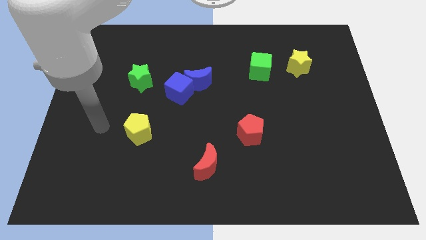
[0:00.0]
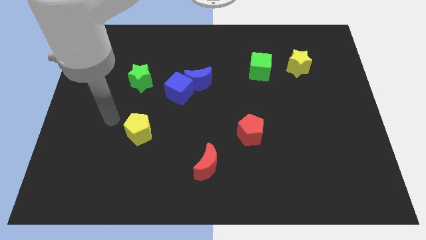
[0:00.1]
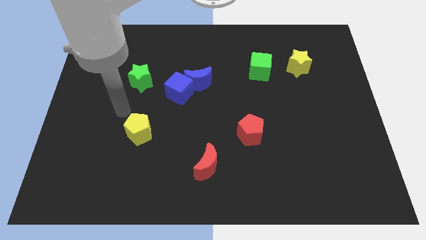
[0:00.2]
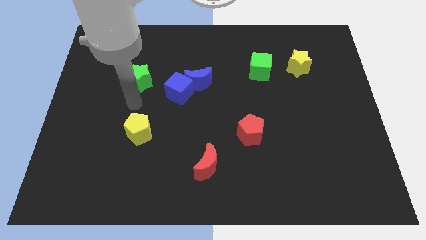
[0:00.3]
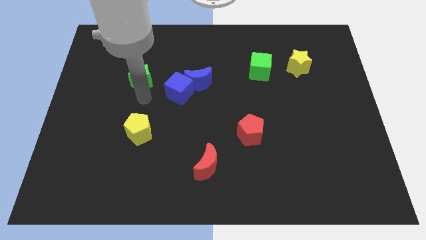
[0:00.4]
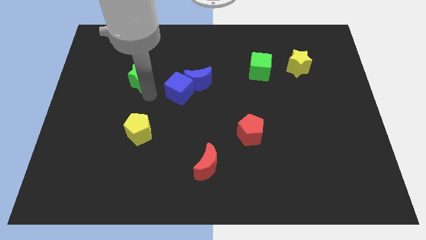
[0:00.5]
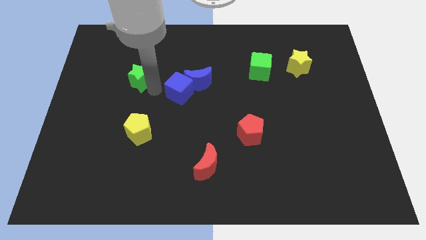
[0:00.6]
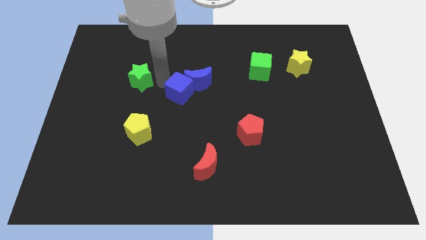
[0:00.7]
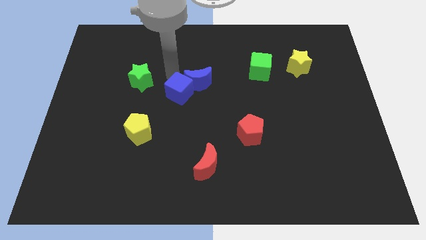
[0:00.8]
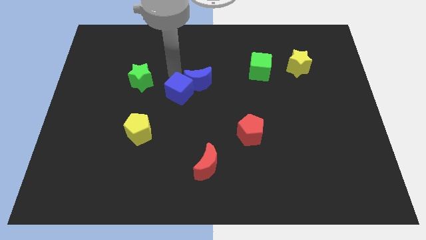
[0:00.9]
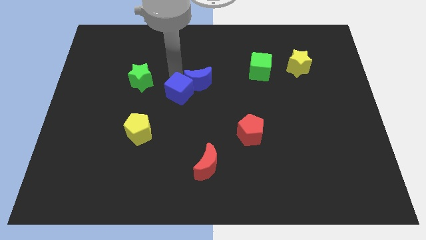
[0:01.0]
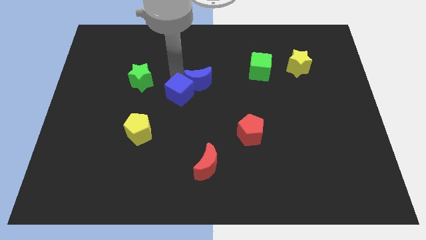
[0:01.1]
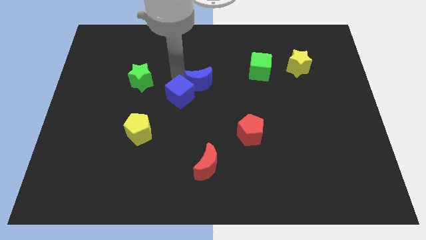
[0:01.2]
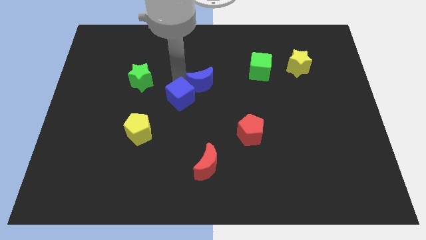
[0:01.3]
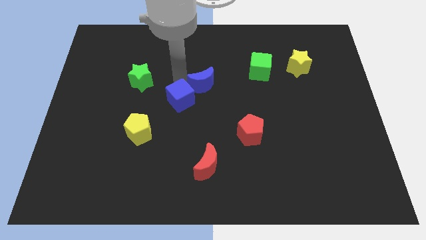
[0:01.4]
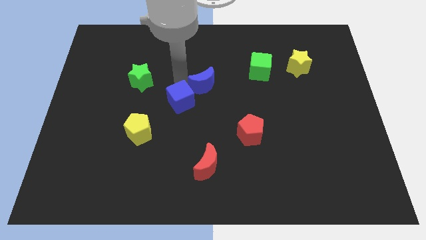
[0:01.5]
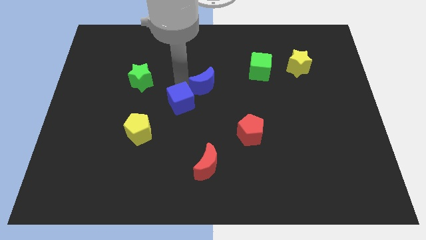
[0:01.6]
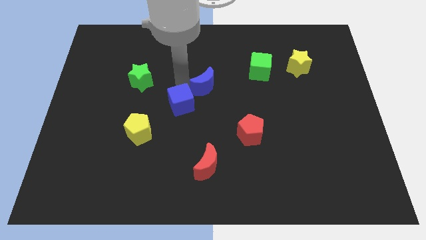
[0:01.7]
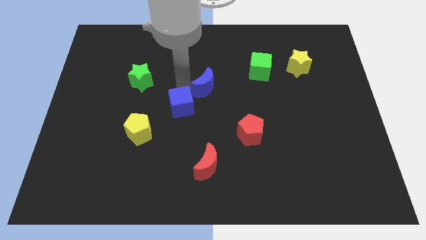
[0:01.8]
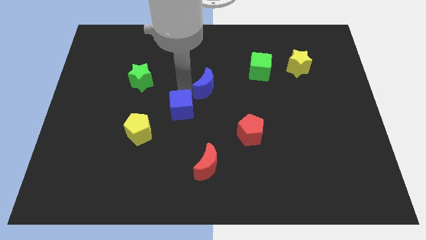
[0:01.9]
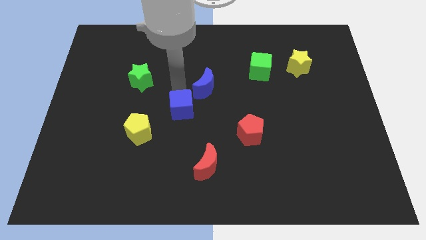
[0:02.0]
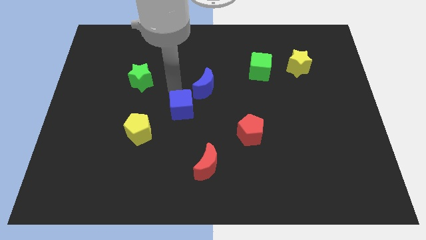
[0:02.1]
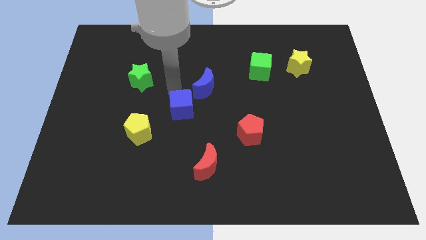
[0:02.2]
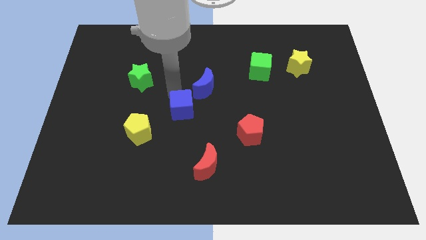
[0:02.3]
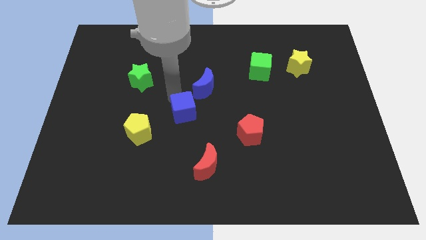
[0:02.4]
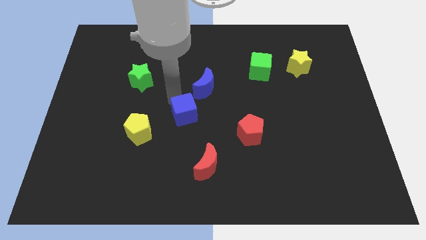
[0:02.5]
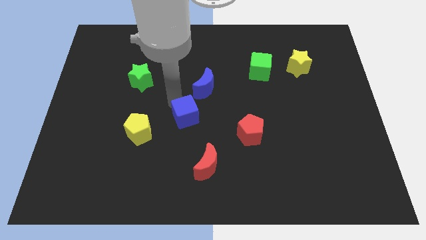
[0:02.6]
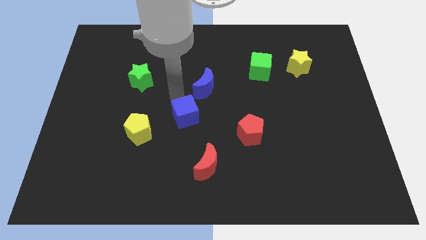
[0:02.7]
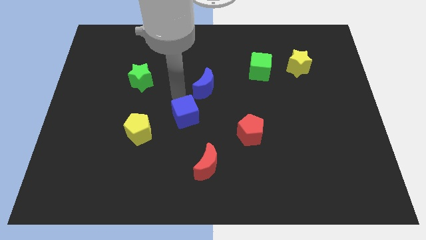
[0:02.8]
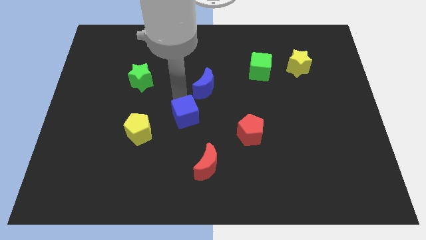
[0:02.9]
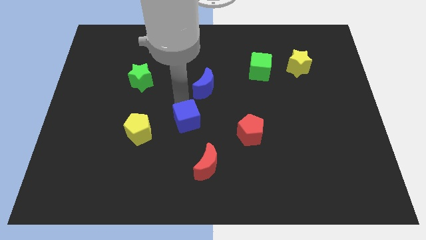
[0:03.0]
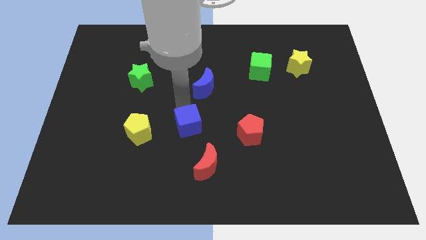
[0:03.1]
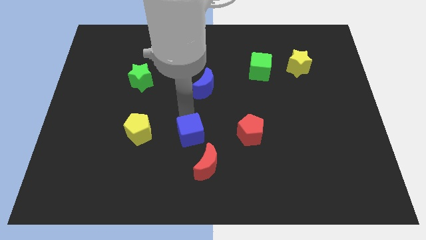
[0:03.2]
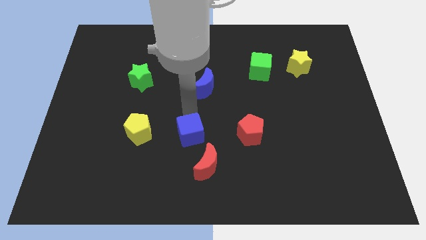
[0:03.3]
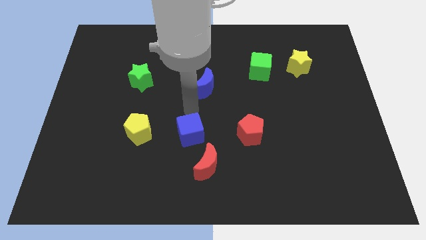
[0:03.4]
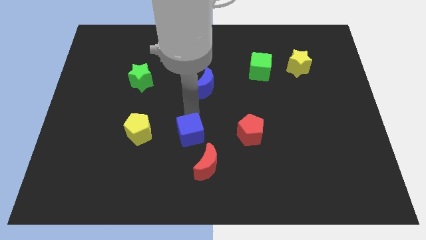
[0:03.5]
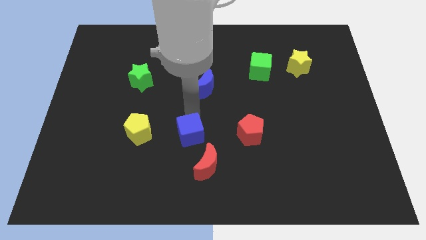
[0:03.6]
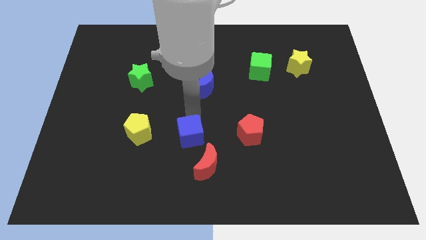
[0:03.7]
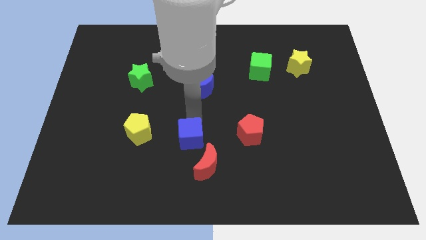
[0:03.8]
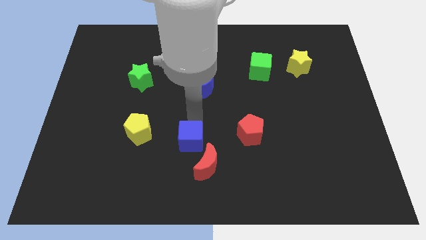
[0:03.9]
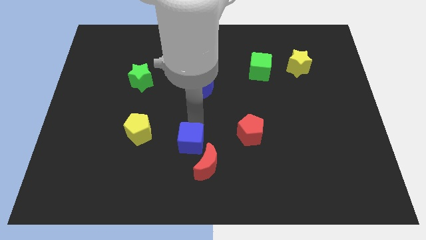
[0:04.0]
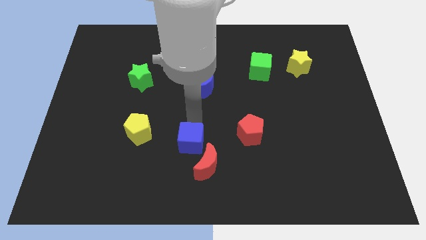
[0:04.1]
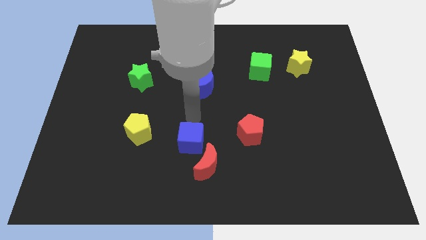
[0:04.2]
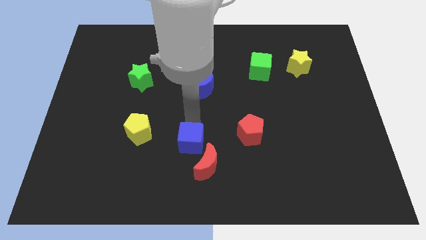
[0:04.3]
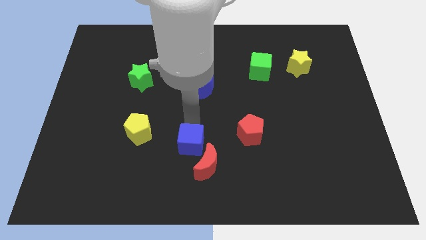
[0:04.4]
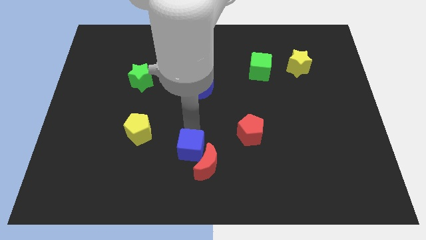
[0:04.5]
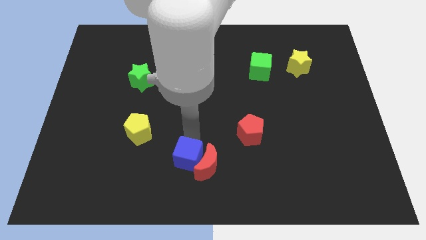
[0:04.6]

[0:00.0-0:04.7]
move the blue cube to the bottom

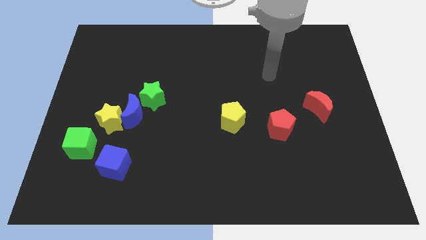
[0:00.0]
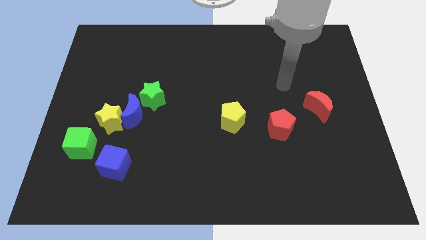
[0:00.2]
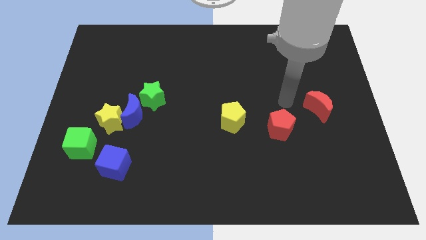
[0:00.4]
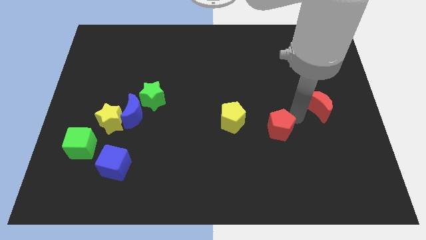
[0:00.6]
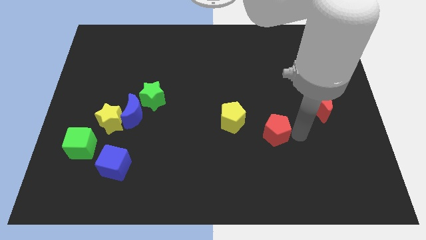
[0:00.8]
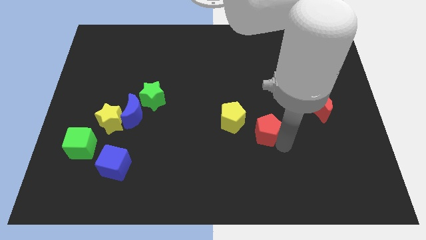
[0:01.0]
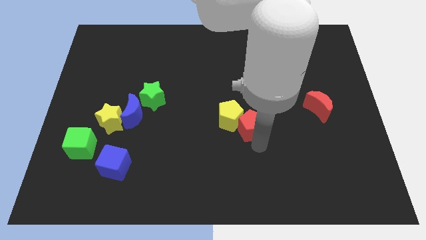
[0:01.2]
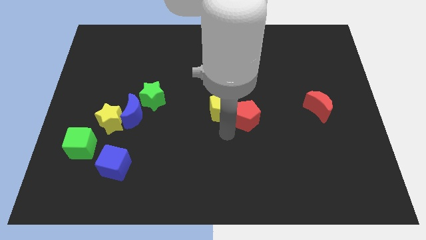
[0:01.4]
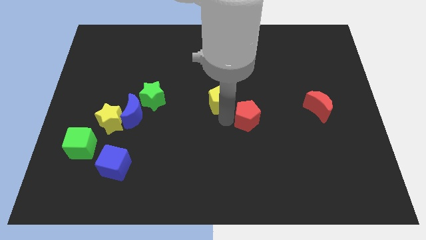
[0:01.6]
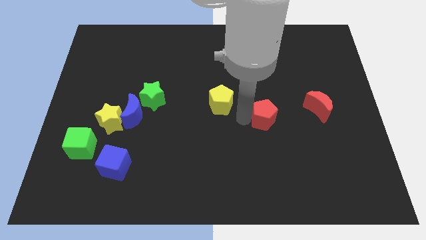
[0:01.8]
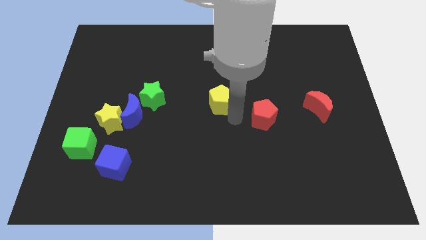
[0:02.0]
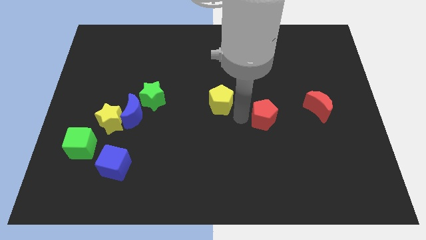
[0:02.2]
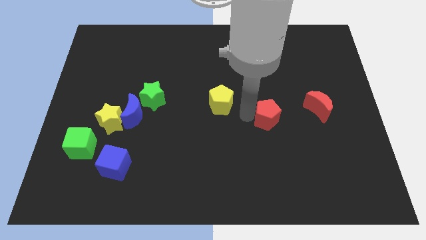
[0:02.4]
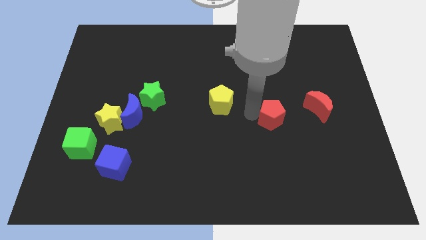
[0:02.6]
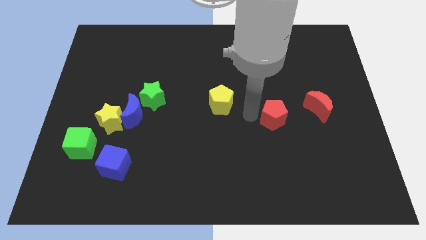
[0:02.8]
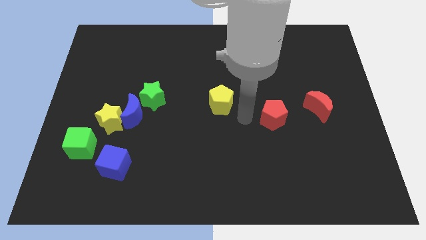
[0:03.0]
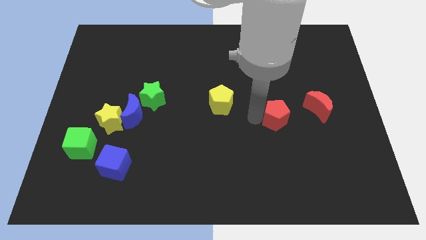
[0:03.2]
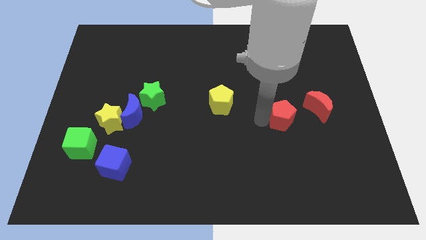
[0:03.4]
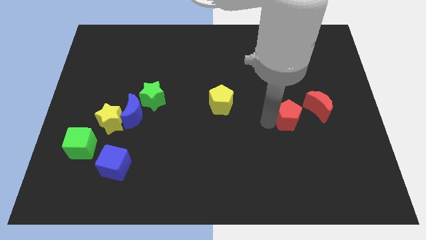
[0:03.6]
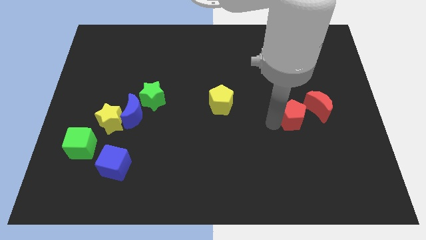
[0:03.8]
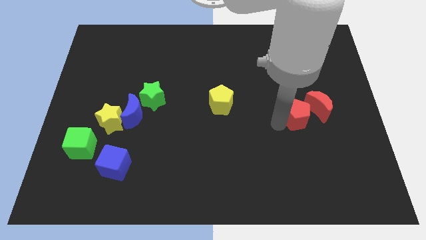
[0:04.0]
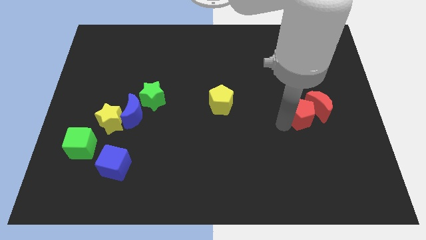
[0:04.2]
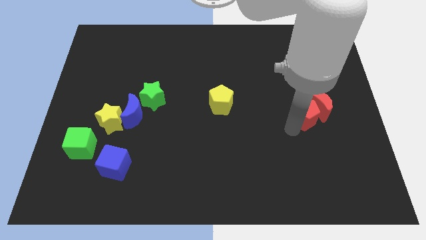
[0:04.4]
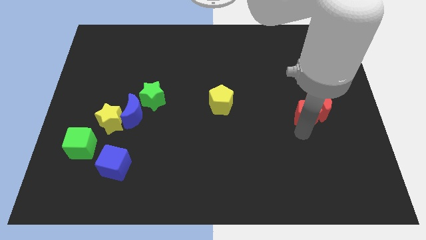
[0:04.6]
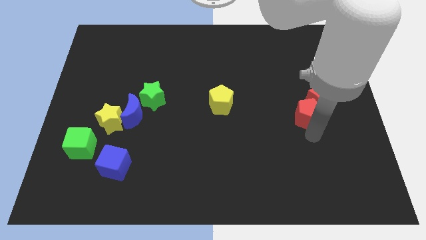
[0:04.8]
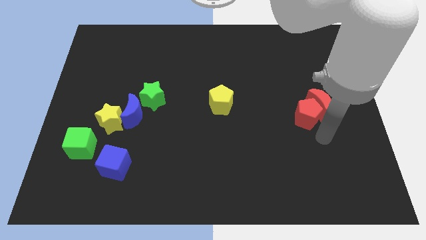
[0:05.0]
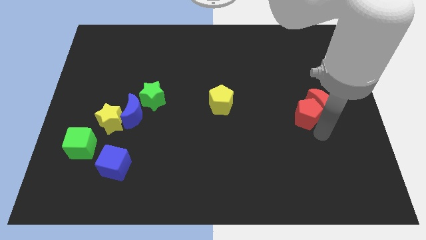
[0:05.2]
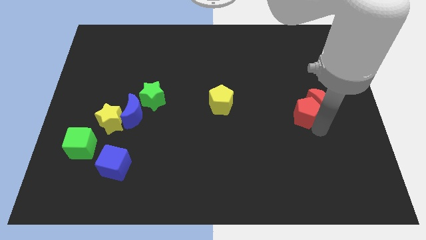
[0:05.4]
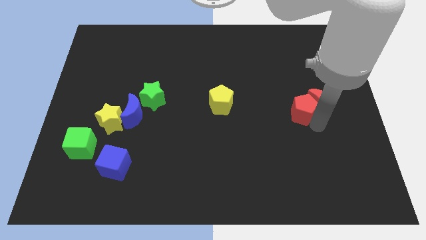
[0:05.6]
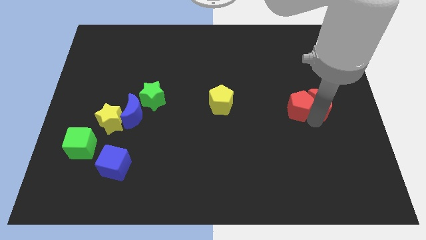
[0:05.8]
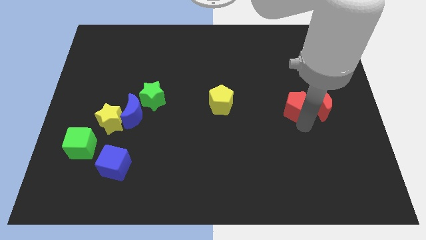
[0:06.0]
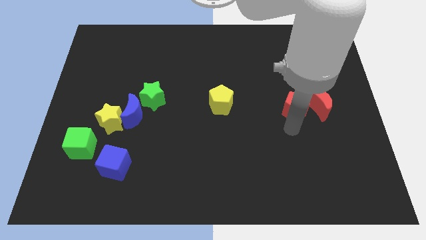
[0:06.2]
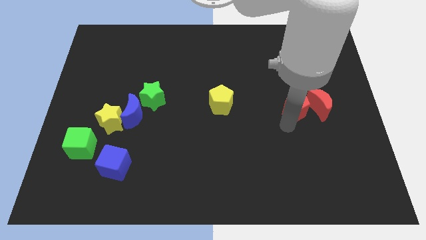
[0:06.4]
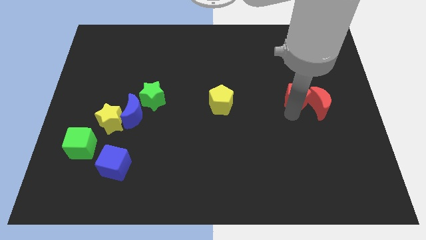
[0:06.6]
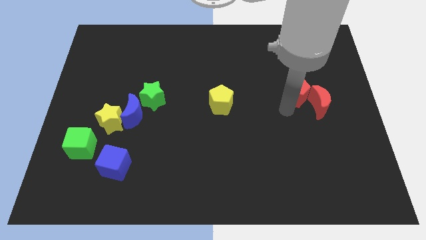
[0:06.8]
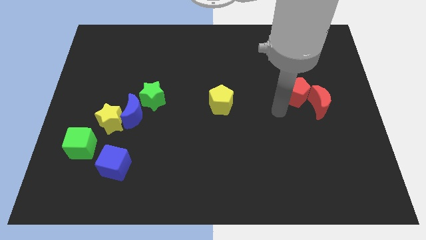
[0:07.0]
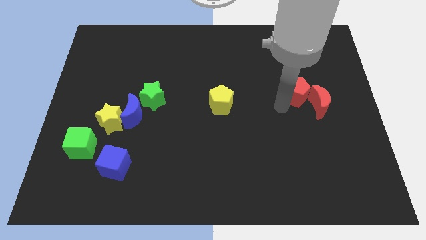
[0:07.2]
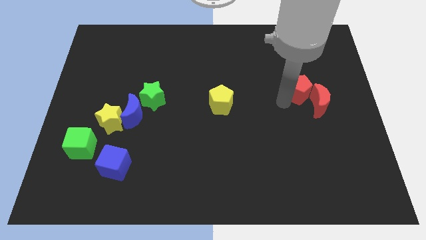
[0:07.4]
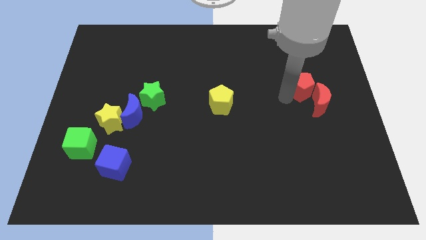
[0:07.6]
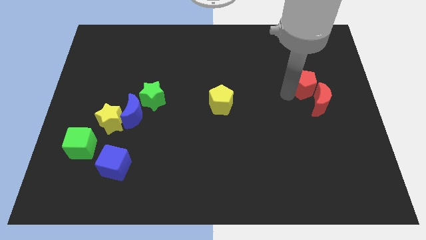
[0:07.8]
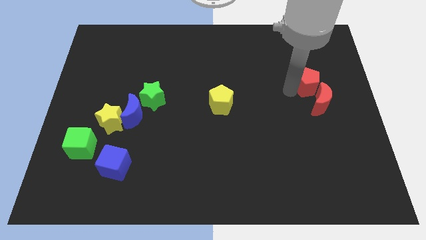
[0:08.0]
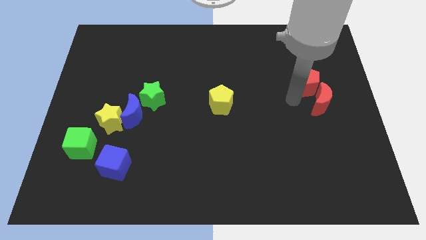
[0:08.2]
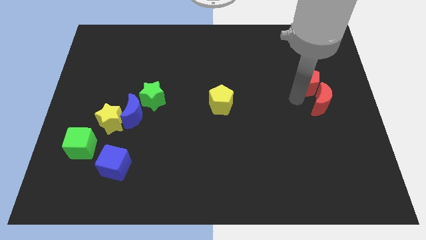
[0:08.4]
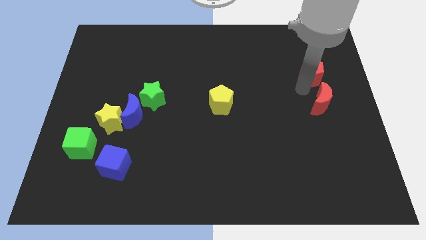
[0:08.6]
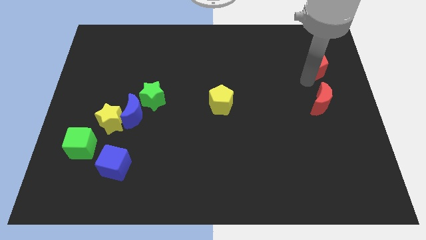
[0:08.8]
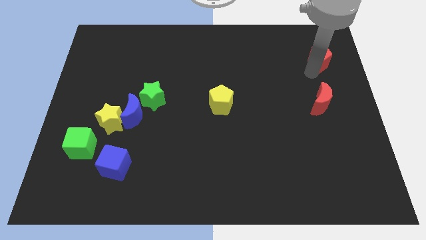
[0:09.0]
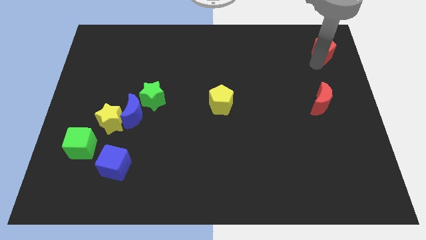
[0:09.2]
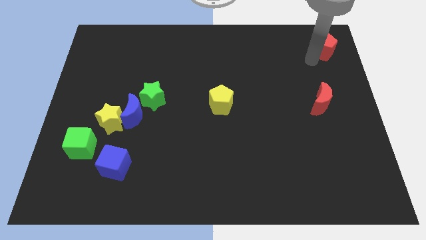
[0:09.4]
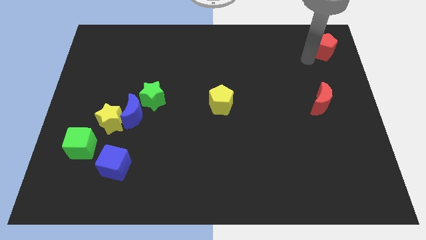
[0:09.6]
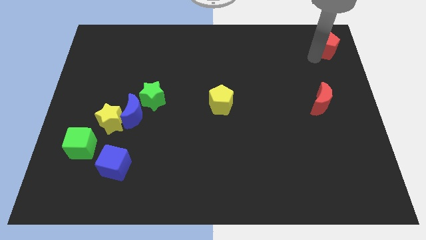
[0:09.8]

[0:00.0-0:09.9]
move the red pentagon to the upper right corner
